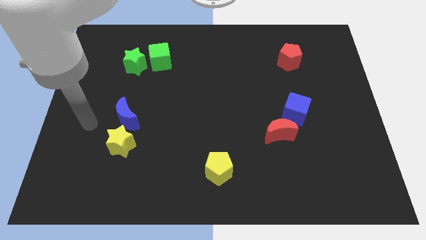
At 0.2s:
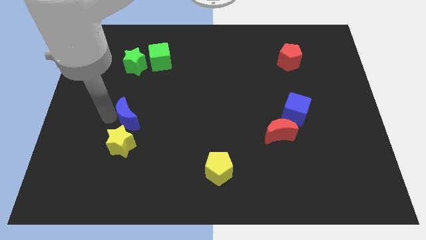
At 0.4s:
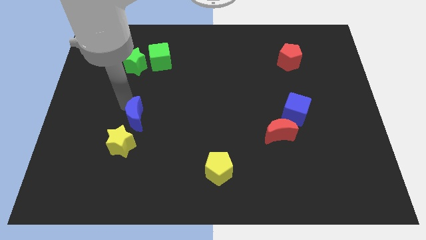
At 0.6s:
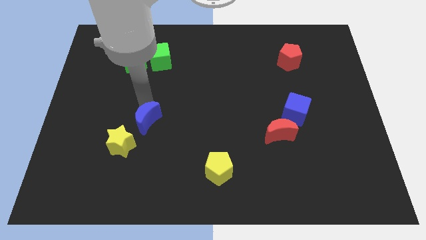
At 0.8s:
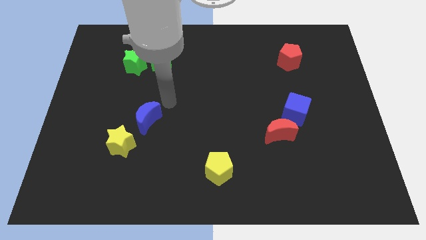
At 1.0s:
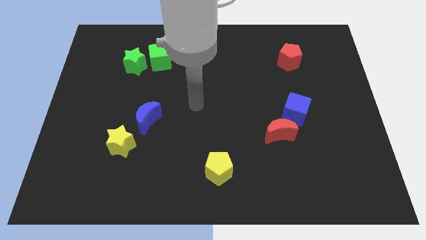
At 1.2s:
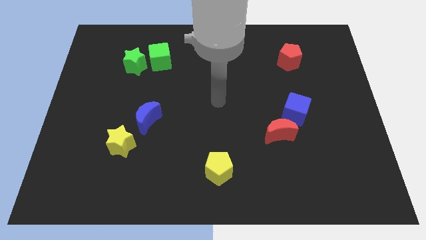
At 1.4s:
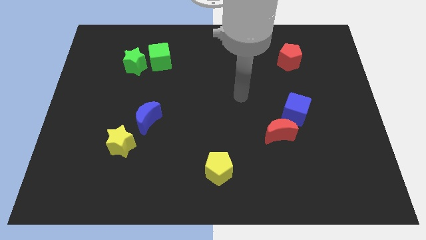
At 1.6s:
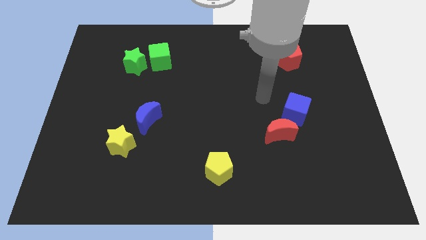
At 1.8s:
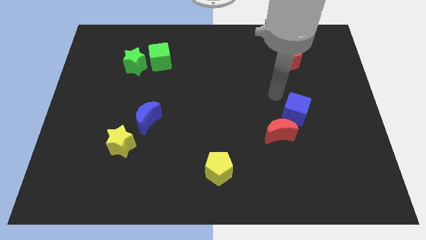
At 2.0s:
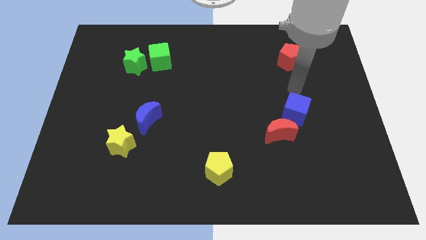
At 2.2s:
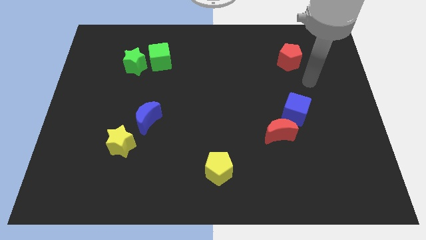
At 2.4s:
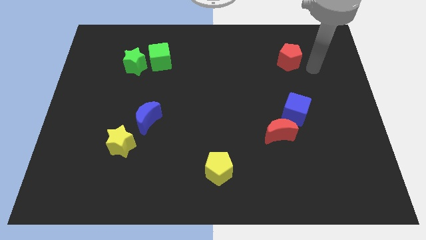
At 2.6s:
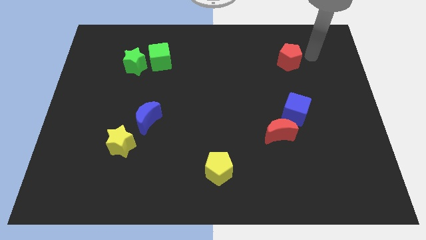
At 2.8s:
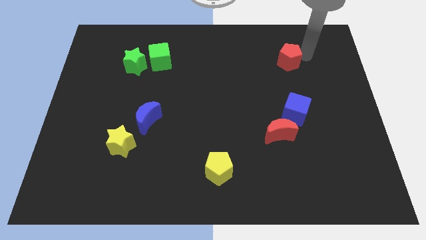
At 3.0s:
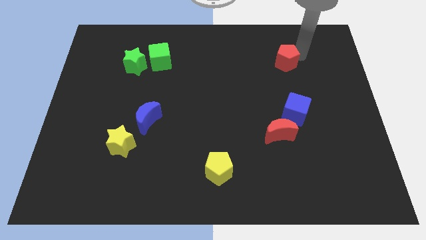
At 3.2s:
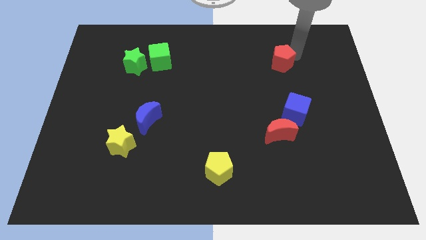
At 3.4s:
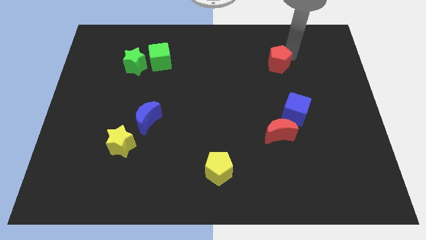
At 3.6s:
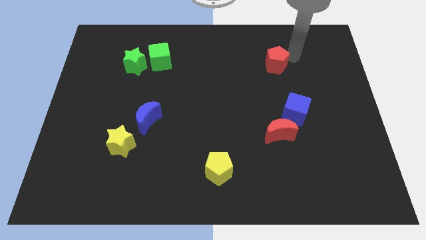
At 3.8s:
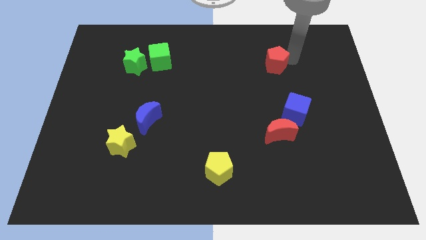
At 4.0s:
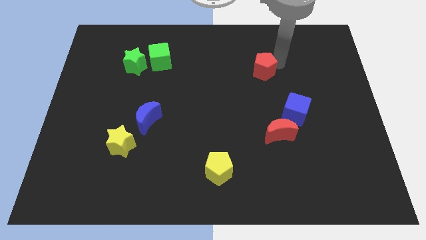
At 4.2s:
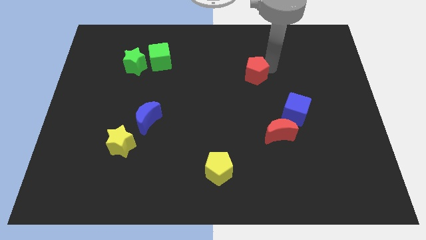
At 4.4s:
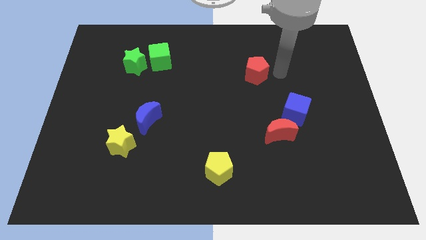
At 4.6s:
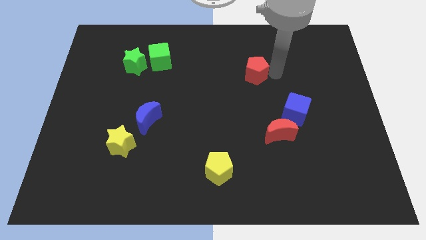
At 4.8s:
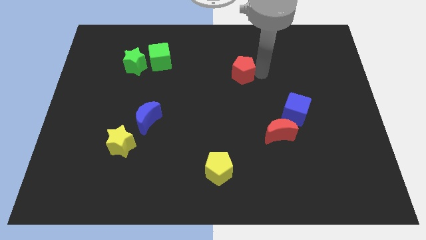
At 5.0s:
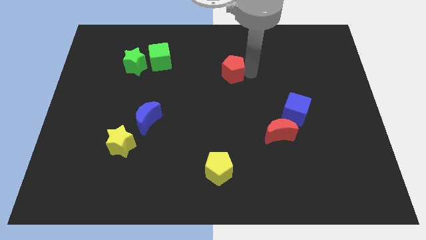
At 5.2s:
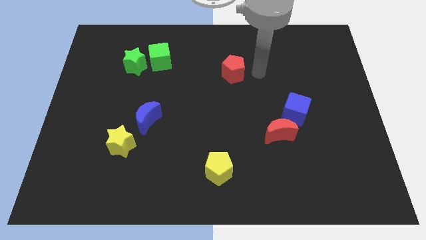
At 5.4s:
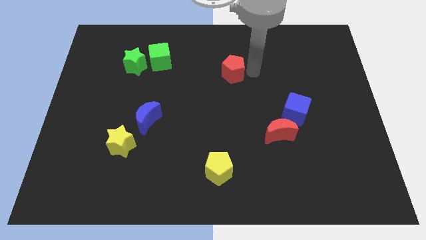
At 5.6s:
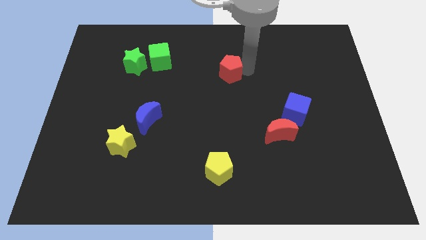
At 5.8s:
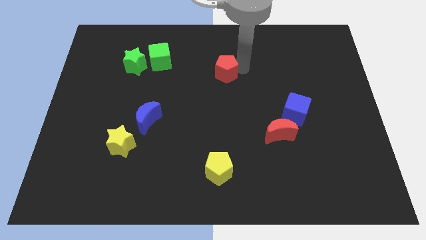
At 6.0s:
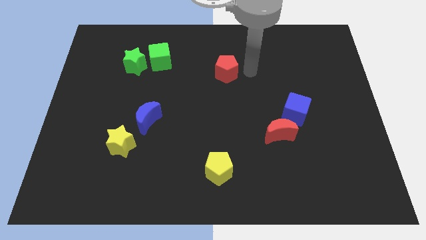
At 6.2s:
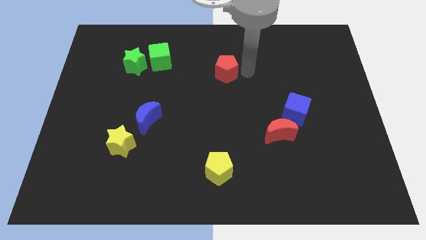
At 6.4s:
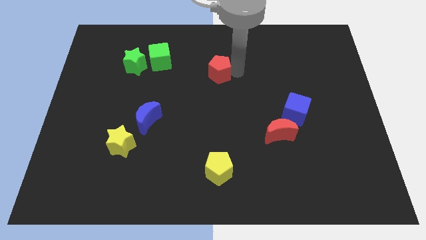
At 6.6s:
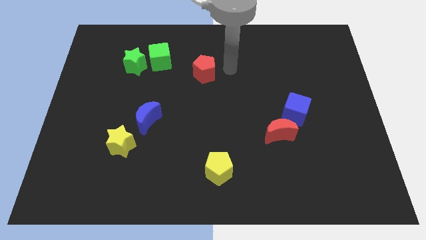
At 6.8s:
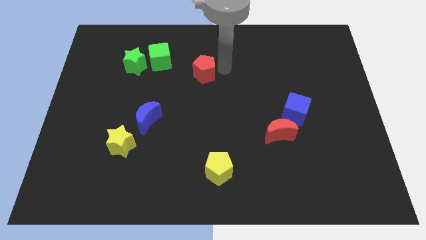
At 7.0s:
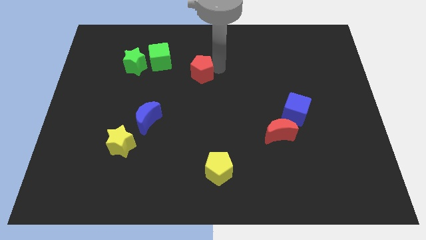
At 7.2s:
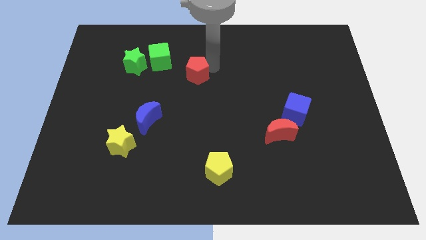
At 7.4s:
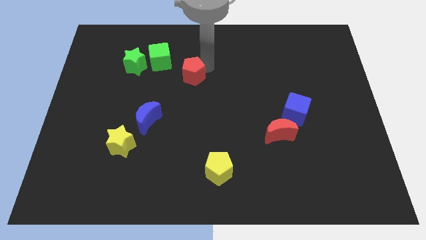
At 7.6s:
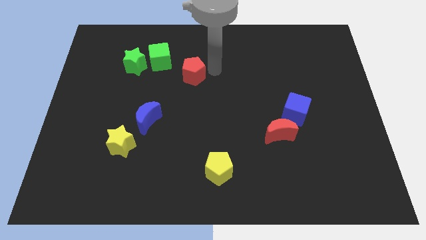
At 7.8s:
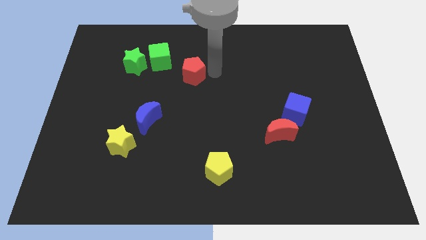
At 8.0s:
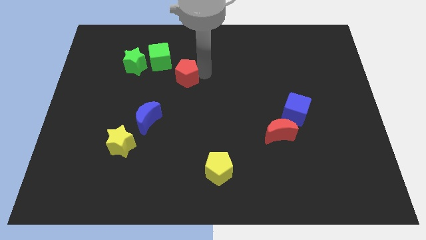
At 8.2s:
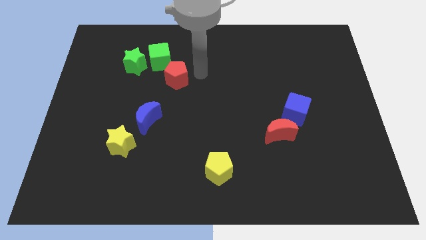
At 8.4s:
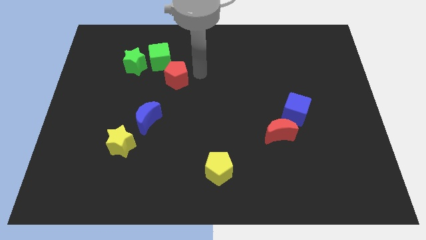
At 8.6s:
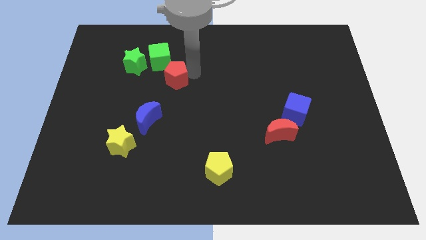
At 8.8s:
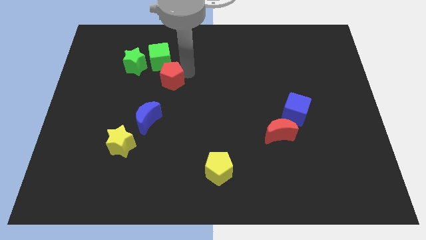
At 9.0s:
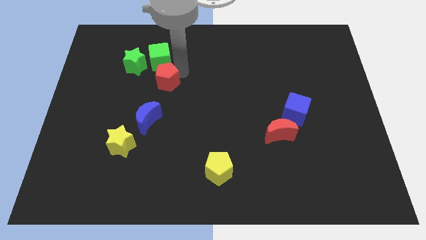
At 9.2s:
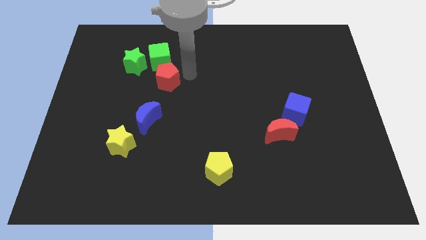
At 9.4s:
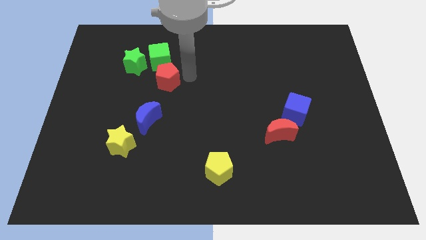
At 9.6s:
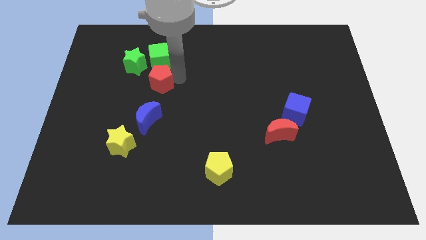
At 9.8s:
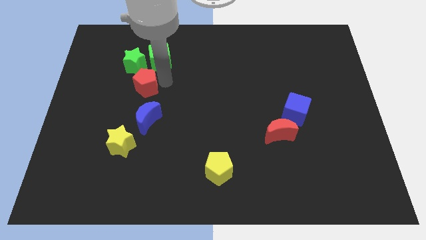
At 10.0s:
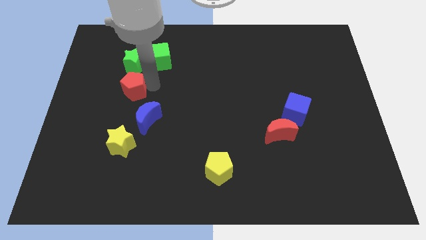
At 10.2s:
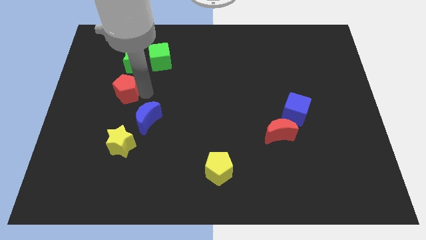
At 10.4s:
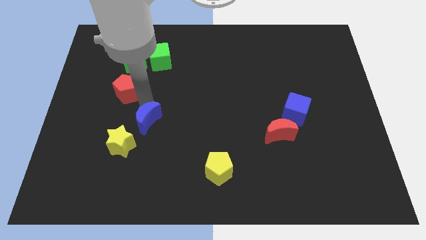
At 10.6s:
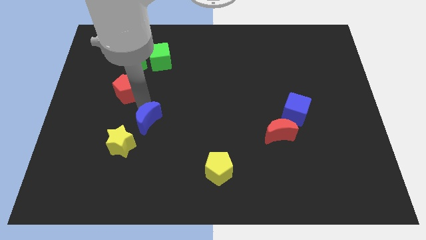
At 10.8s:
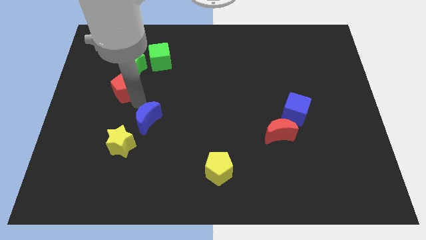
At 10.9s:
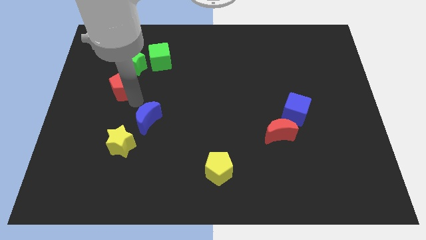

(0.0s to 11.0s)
slide the red pentagon diagonally down and to the left of the green star

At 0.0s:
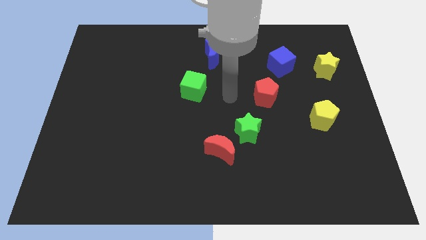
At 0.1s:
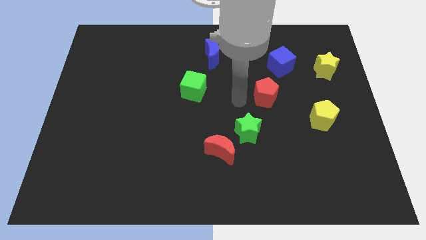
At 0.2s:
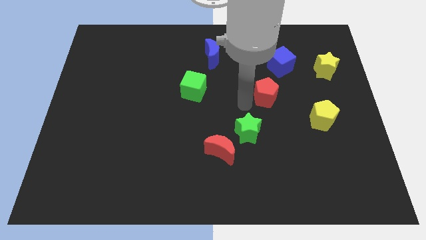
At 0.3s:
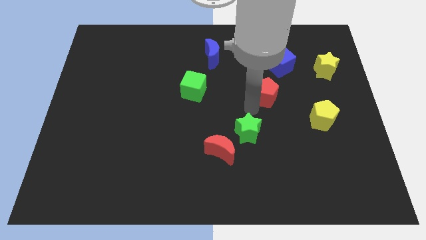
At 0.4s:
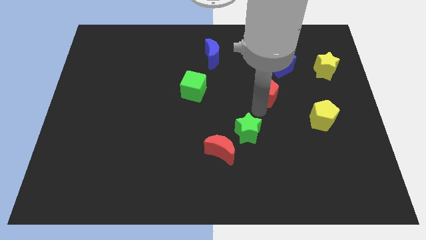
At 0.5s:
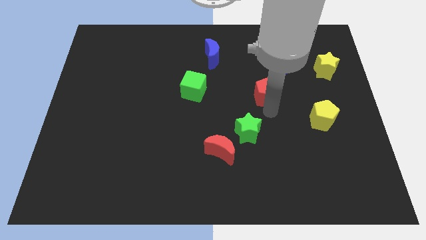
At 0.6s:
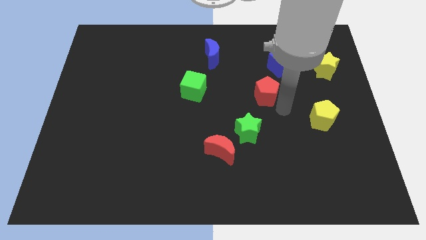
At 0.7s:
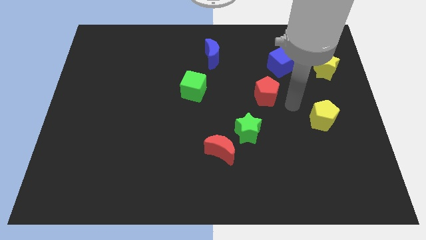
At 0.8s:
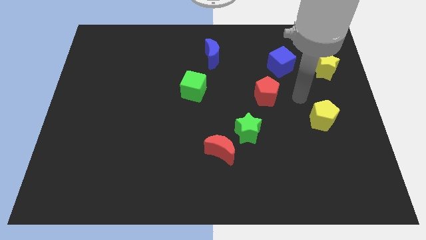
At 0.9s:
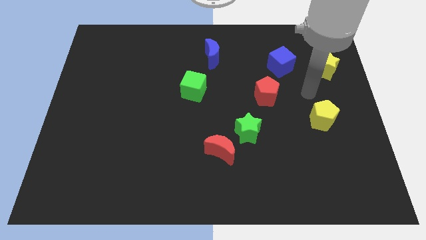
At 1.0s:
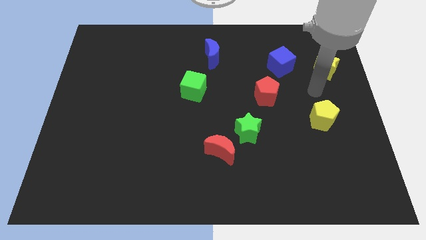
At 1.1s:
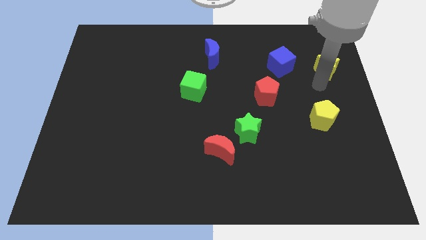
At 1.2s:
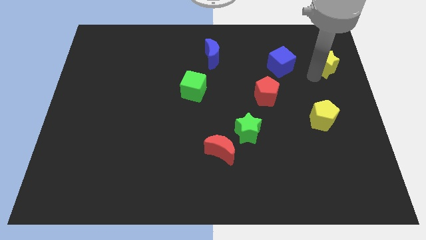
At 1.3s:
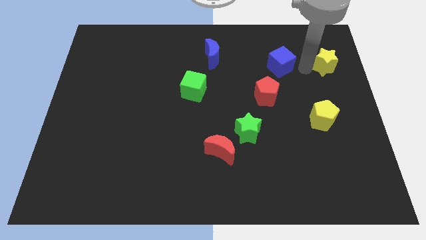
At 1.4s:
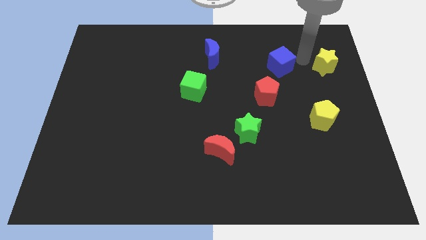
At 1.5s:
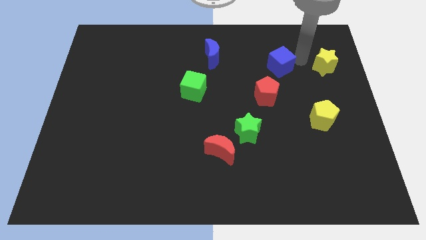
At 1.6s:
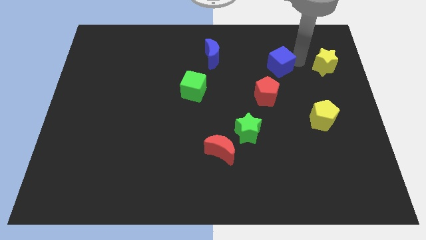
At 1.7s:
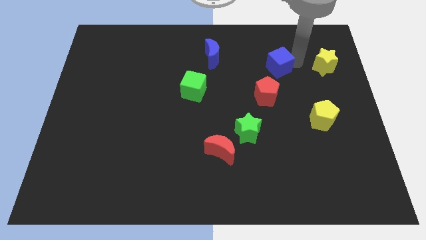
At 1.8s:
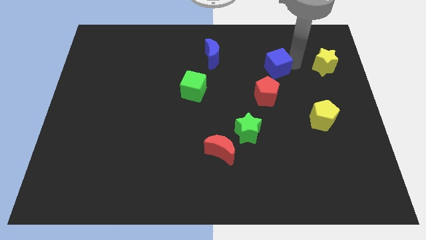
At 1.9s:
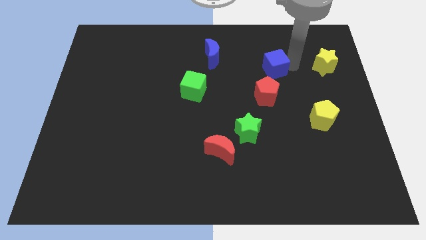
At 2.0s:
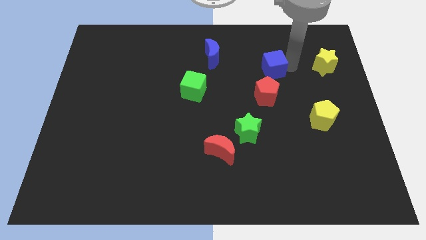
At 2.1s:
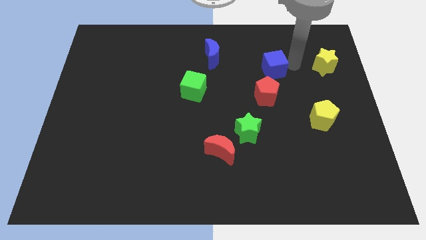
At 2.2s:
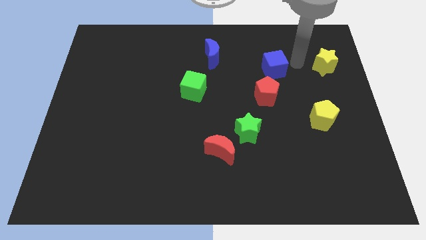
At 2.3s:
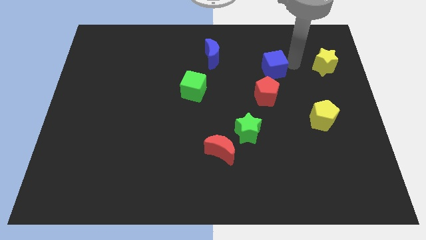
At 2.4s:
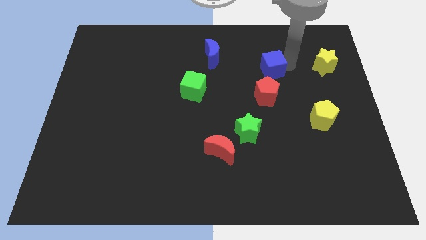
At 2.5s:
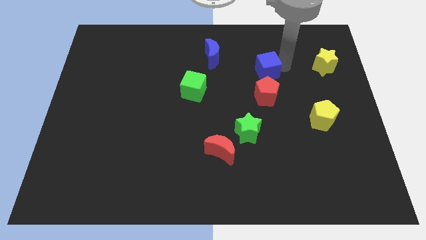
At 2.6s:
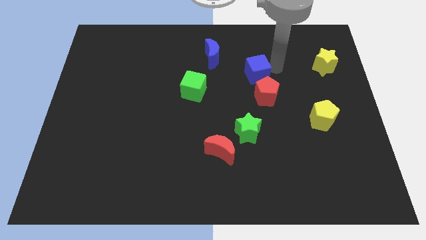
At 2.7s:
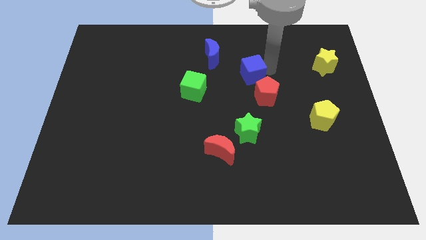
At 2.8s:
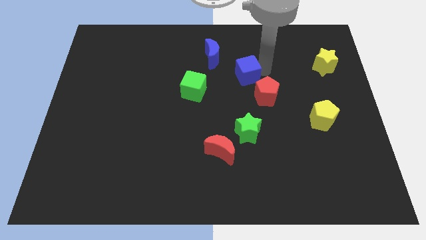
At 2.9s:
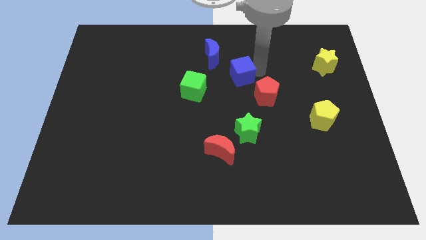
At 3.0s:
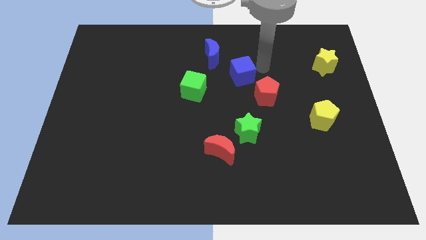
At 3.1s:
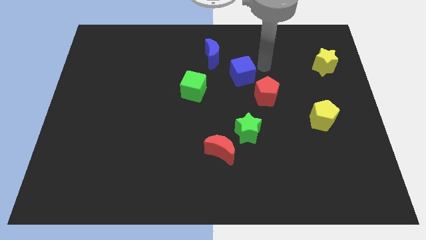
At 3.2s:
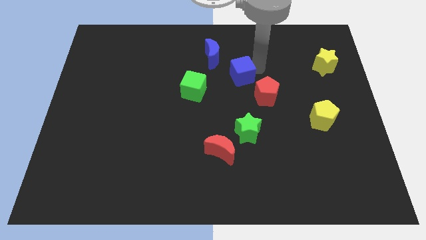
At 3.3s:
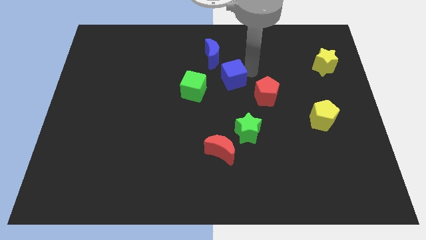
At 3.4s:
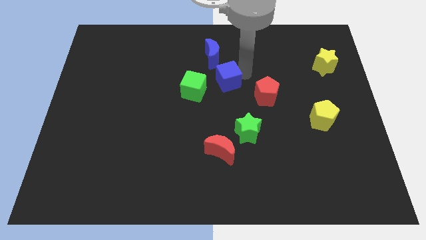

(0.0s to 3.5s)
slide the blue cube to the bottom of the blue moon
